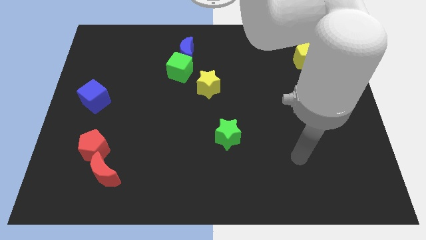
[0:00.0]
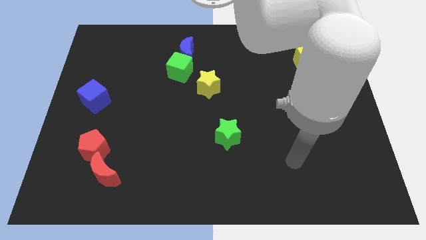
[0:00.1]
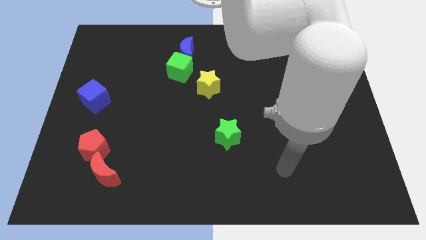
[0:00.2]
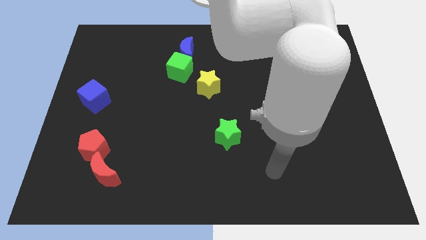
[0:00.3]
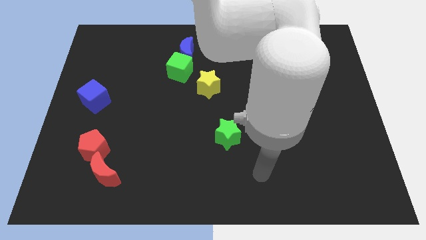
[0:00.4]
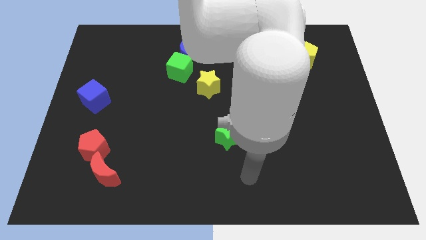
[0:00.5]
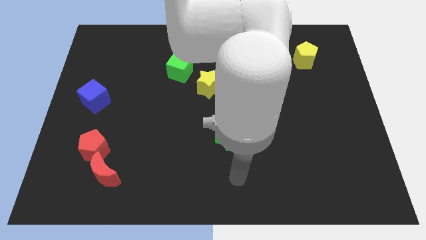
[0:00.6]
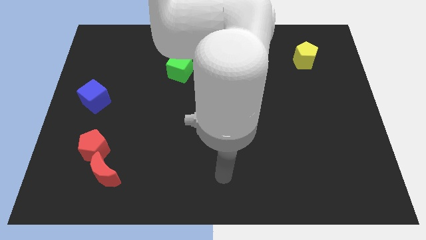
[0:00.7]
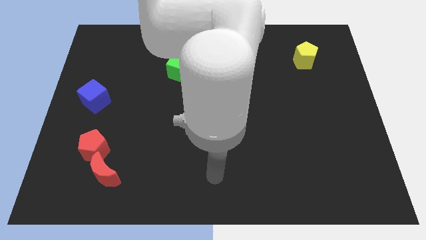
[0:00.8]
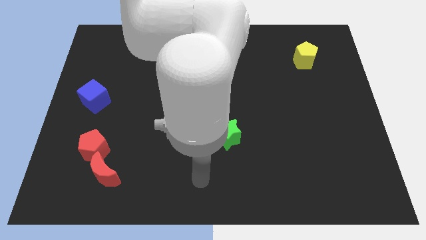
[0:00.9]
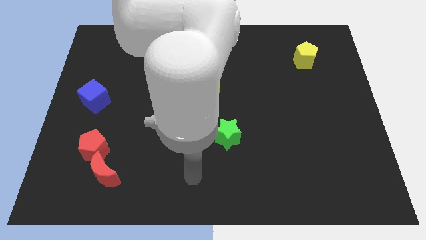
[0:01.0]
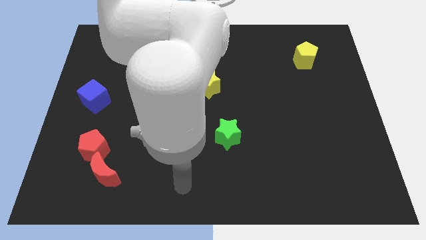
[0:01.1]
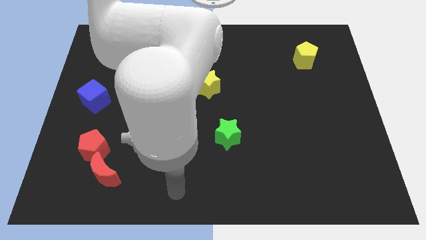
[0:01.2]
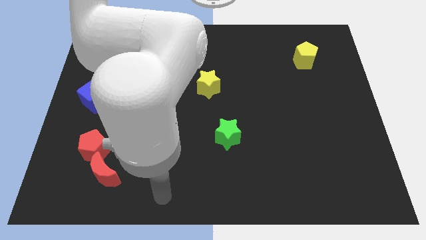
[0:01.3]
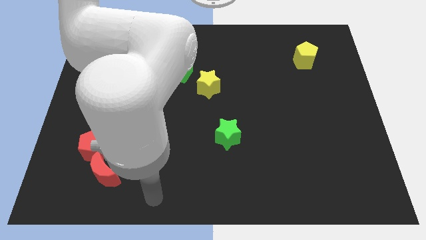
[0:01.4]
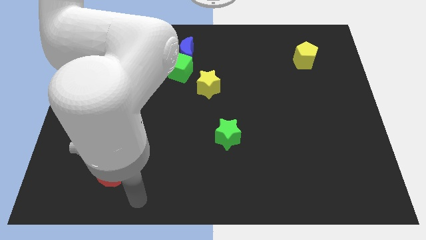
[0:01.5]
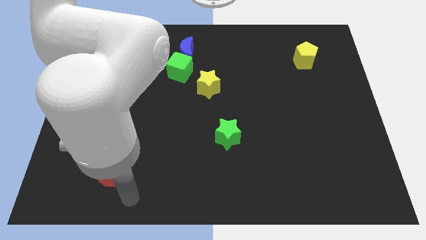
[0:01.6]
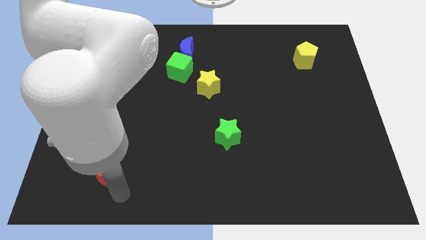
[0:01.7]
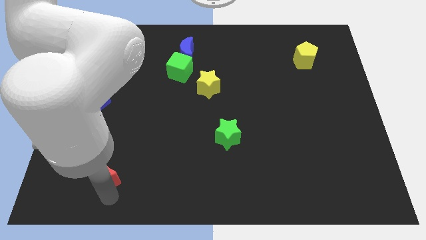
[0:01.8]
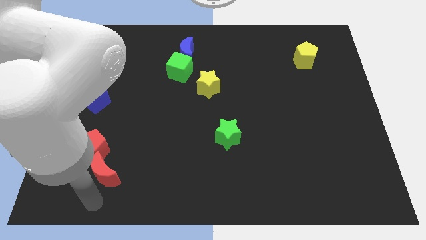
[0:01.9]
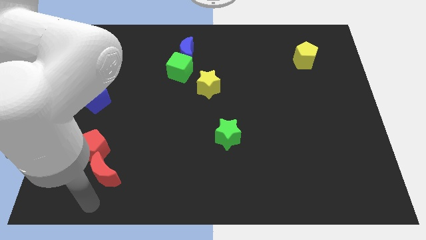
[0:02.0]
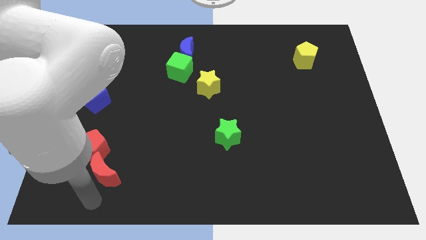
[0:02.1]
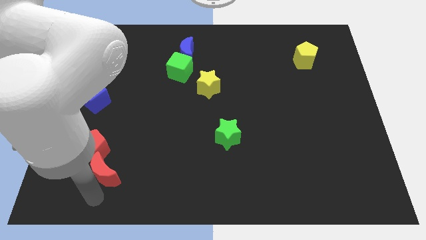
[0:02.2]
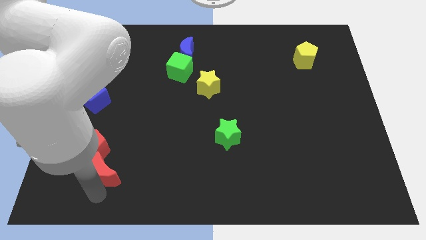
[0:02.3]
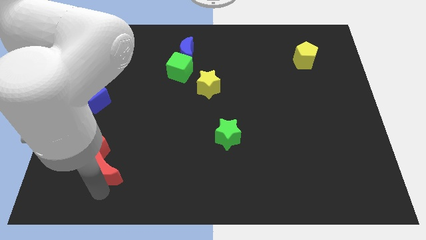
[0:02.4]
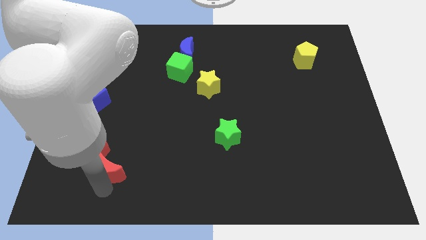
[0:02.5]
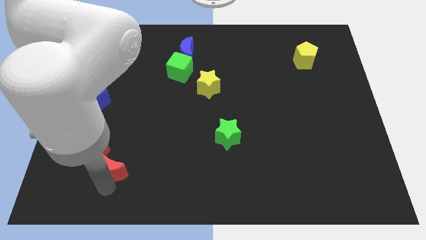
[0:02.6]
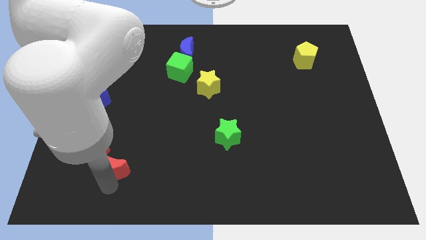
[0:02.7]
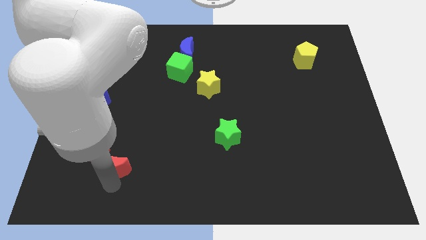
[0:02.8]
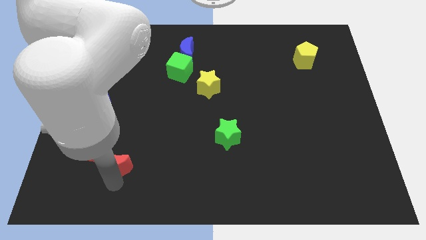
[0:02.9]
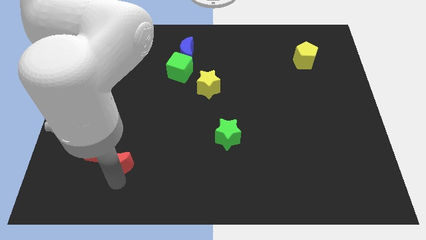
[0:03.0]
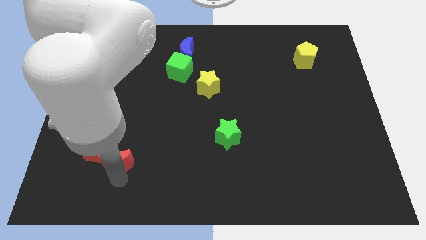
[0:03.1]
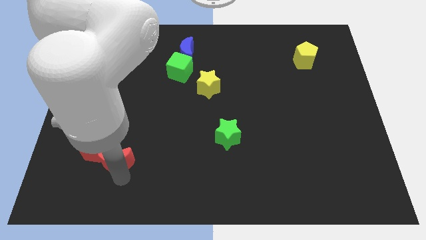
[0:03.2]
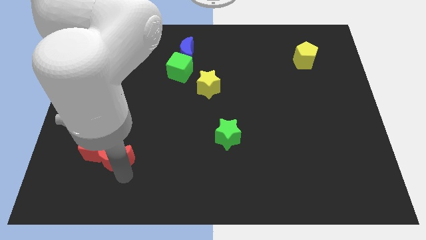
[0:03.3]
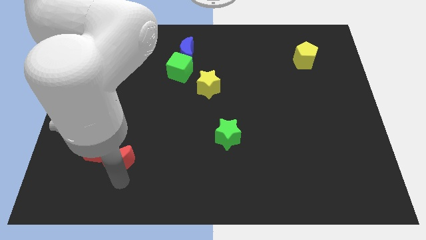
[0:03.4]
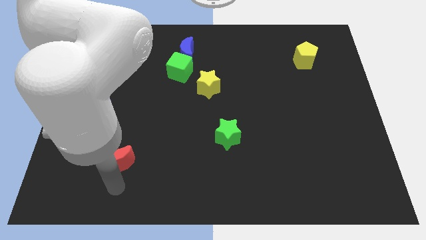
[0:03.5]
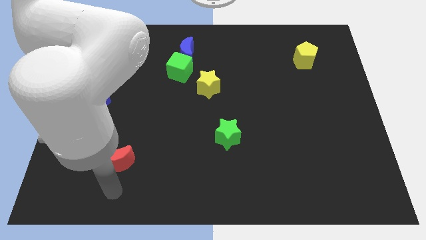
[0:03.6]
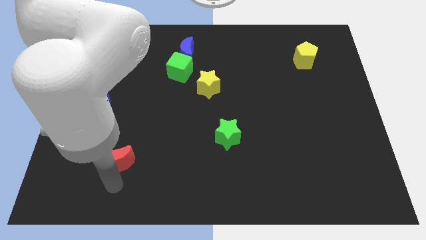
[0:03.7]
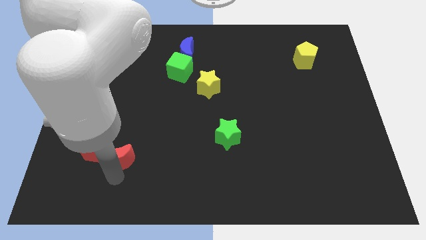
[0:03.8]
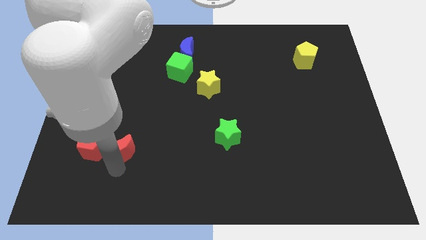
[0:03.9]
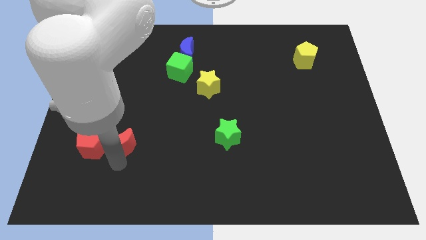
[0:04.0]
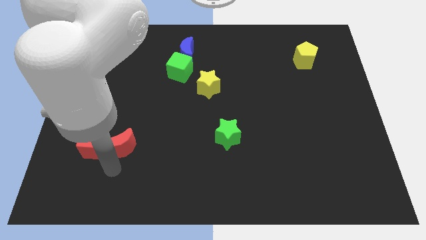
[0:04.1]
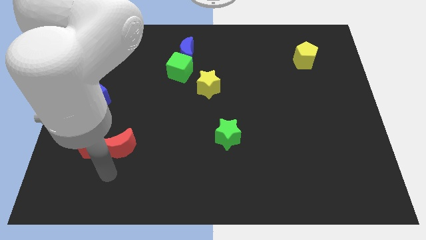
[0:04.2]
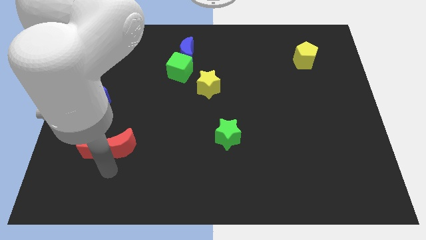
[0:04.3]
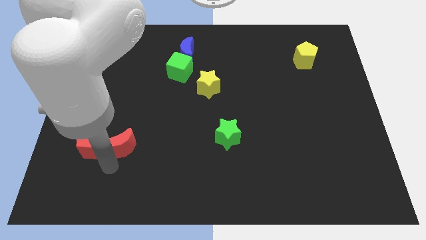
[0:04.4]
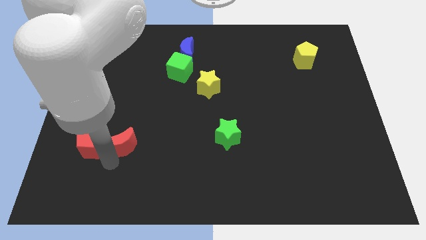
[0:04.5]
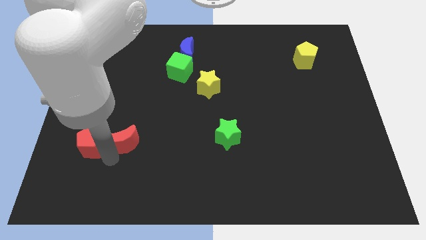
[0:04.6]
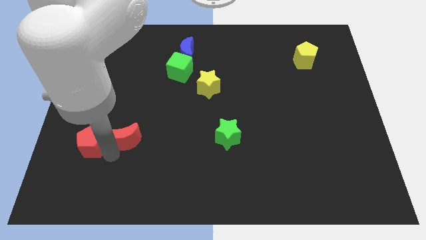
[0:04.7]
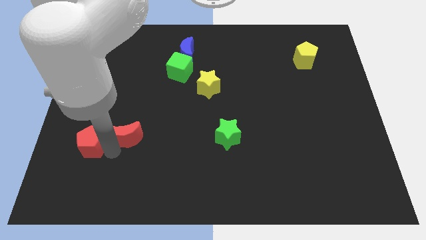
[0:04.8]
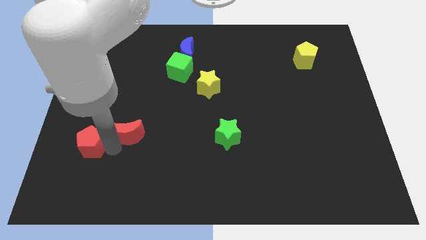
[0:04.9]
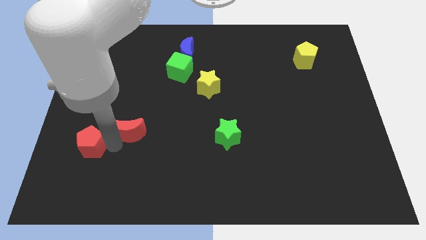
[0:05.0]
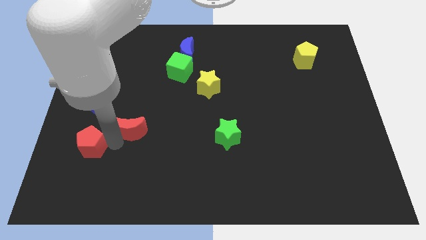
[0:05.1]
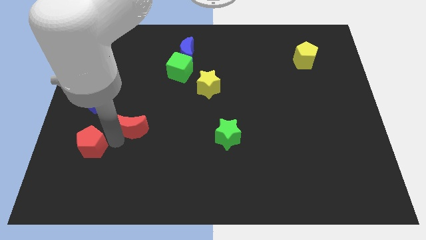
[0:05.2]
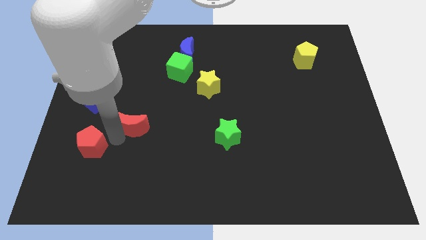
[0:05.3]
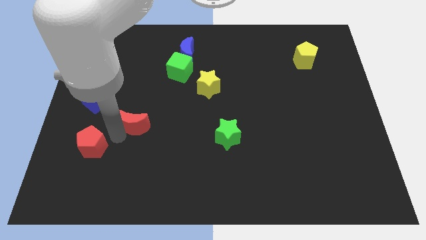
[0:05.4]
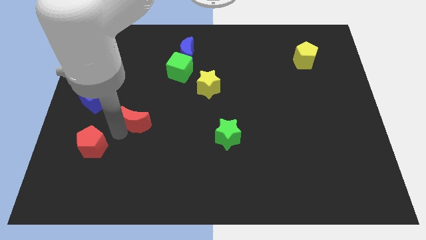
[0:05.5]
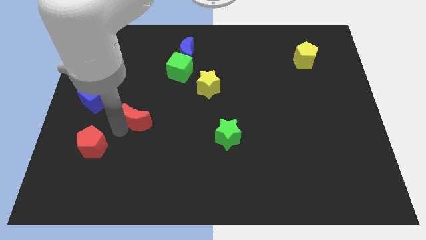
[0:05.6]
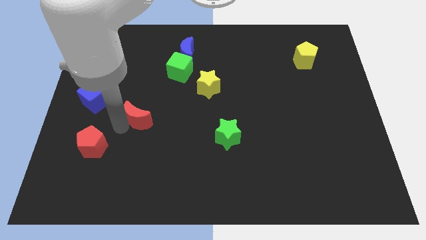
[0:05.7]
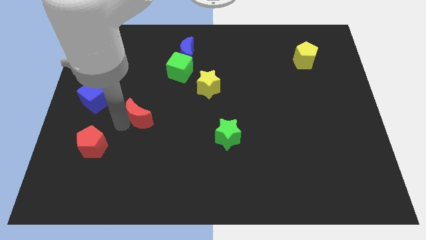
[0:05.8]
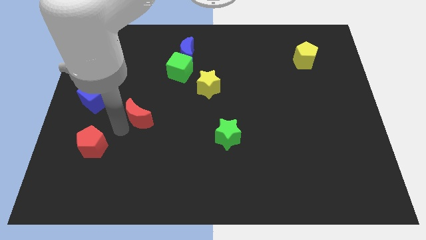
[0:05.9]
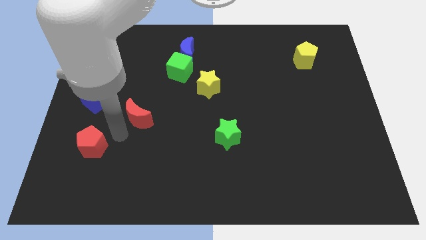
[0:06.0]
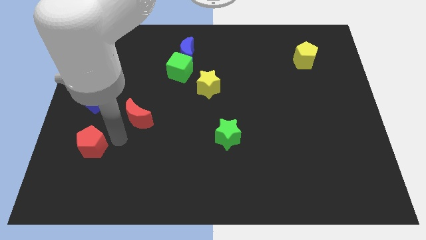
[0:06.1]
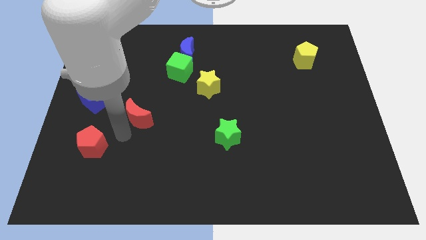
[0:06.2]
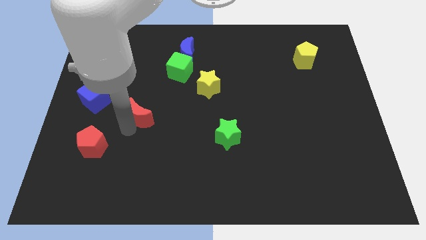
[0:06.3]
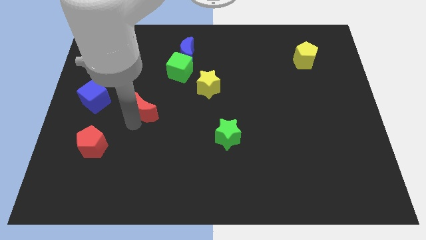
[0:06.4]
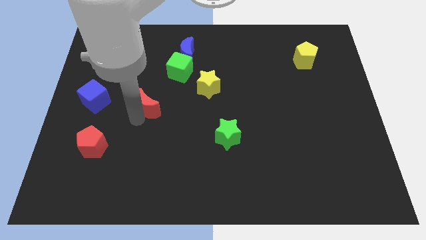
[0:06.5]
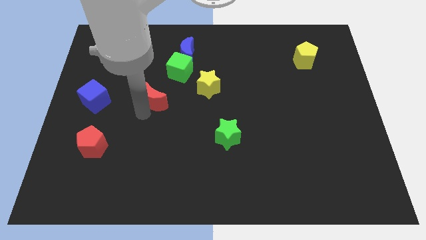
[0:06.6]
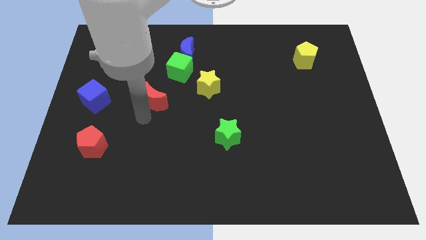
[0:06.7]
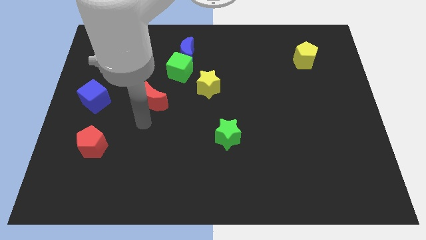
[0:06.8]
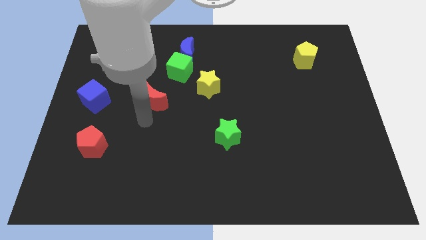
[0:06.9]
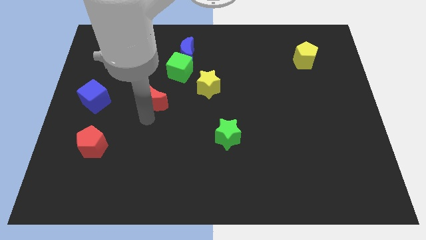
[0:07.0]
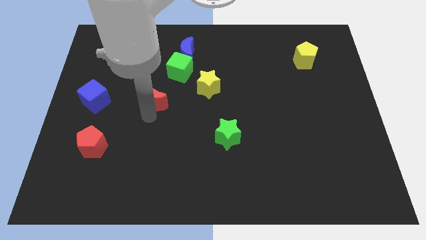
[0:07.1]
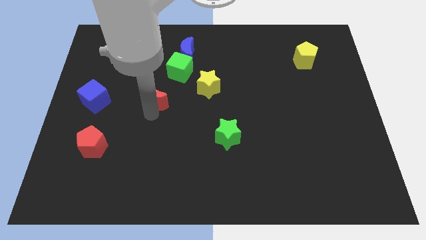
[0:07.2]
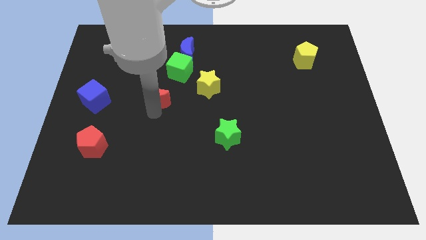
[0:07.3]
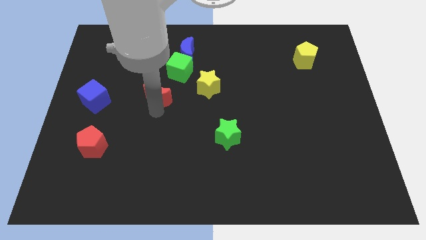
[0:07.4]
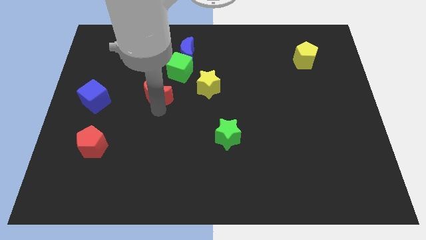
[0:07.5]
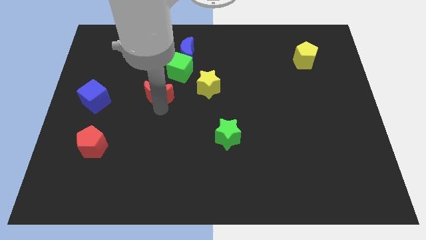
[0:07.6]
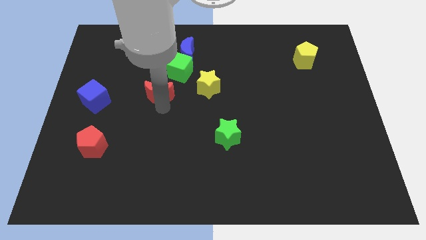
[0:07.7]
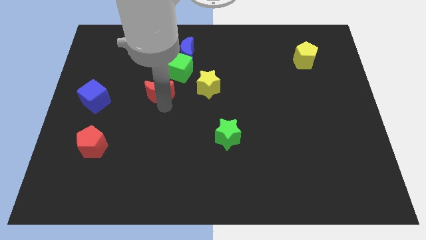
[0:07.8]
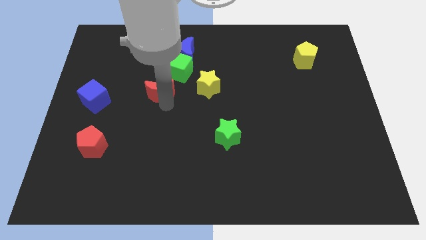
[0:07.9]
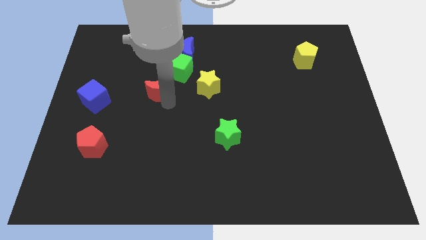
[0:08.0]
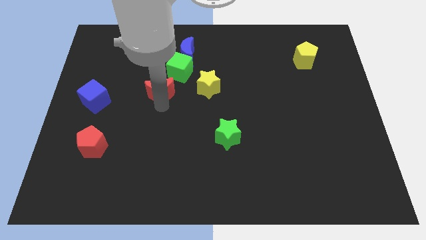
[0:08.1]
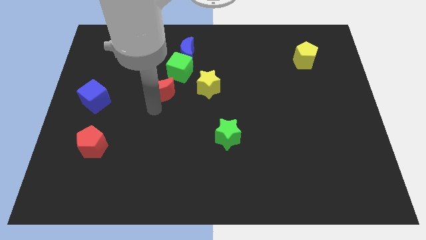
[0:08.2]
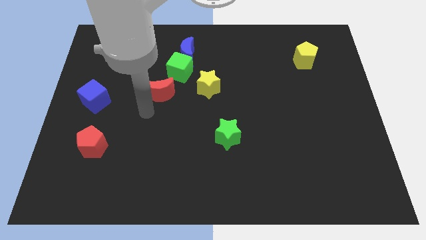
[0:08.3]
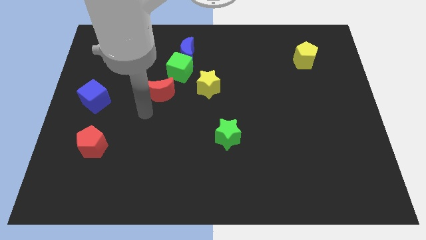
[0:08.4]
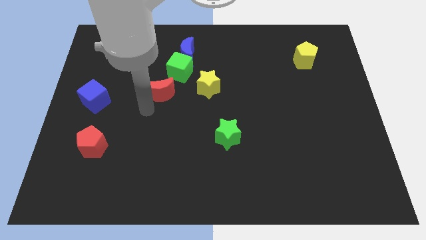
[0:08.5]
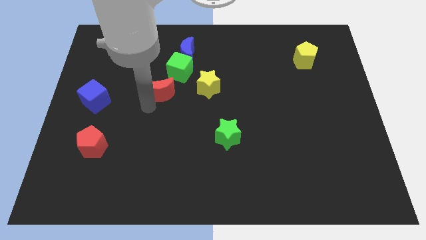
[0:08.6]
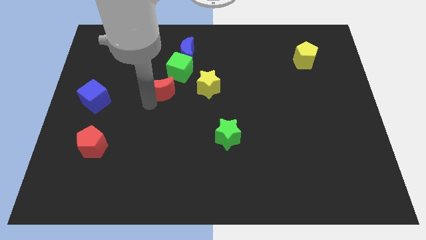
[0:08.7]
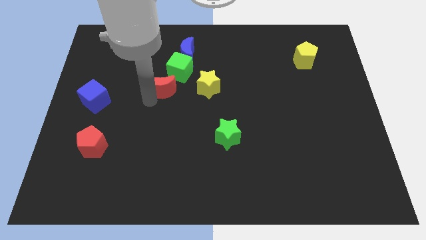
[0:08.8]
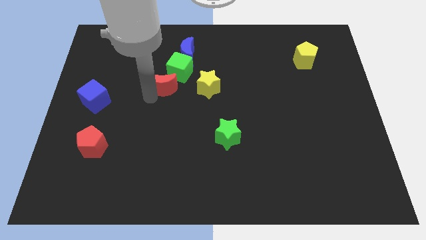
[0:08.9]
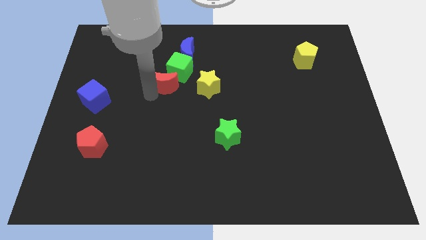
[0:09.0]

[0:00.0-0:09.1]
push the red moon next to the green cube
